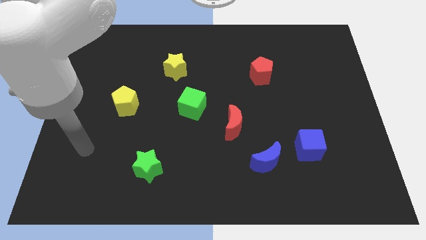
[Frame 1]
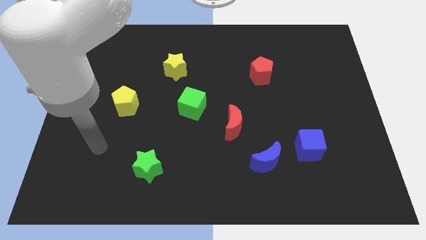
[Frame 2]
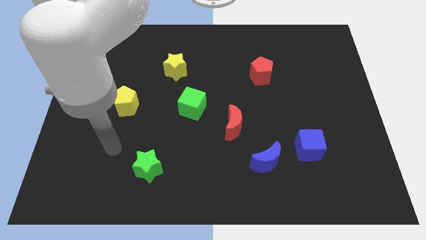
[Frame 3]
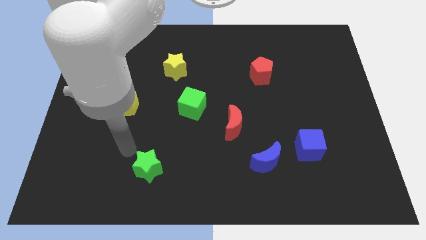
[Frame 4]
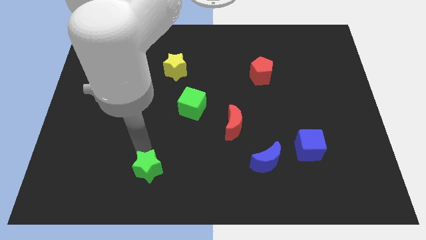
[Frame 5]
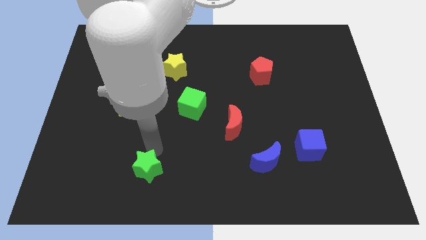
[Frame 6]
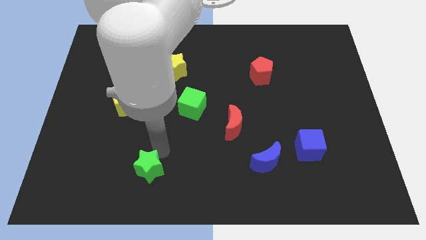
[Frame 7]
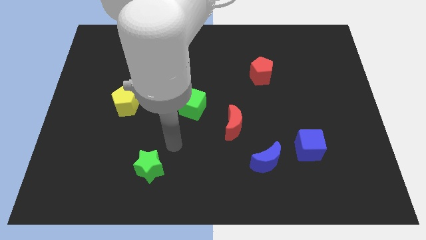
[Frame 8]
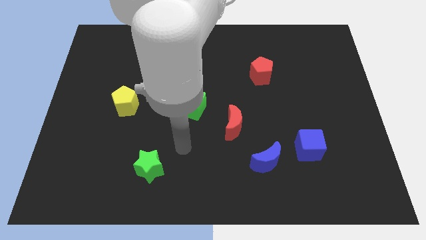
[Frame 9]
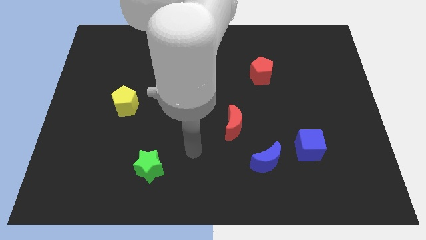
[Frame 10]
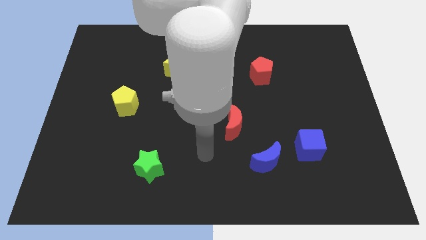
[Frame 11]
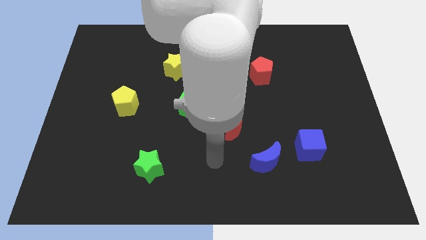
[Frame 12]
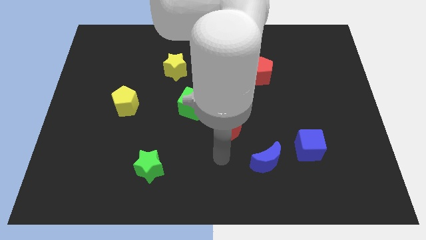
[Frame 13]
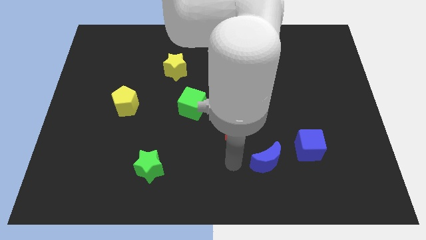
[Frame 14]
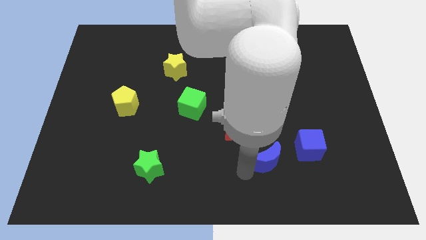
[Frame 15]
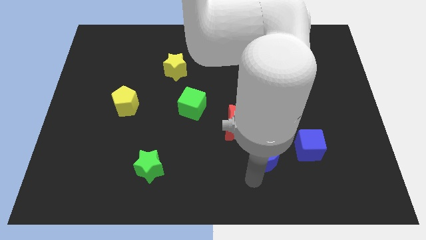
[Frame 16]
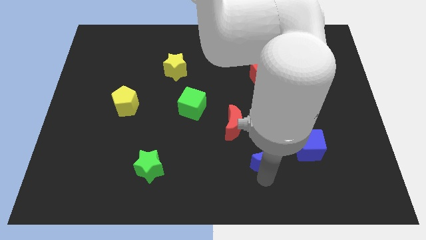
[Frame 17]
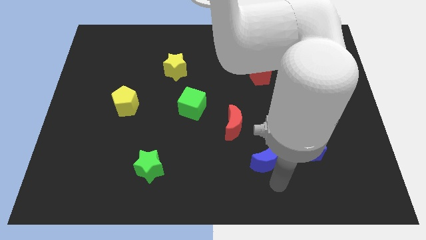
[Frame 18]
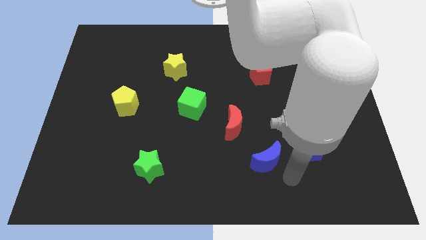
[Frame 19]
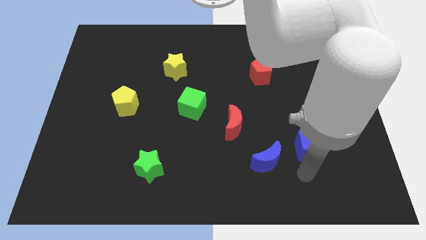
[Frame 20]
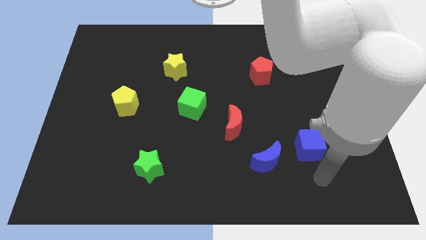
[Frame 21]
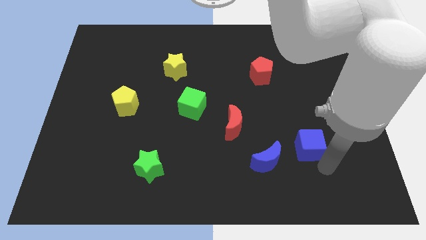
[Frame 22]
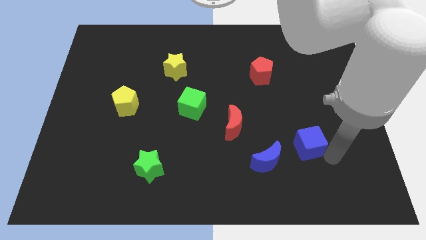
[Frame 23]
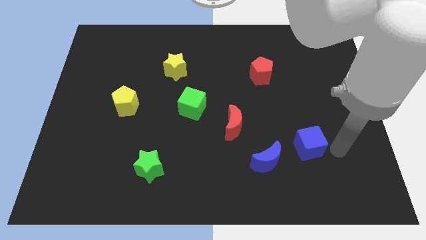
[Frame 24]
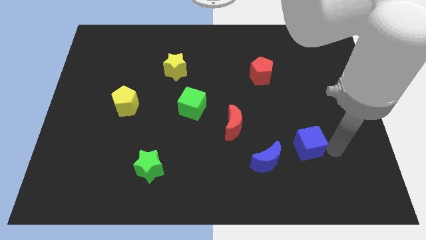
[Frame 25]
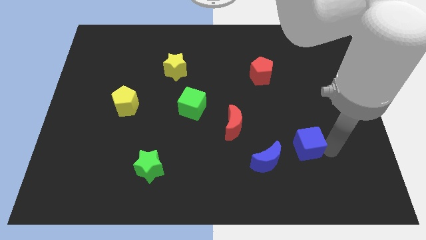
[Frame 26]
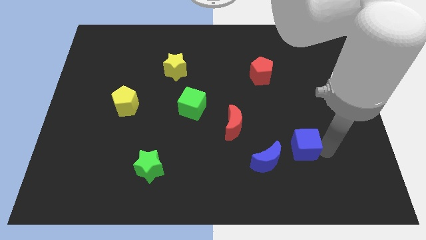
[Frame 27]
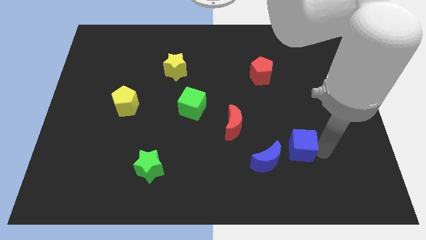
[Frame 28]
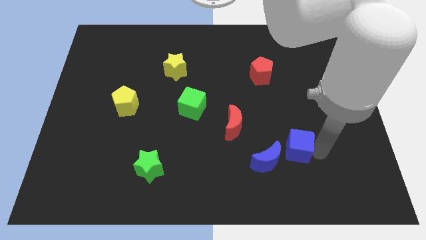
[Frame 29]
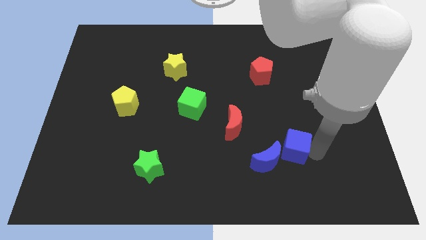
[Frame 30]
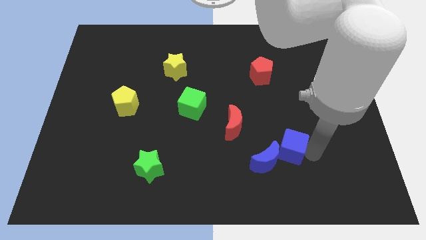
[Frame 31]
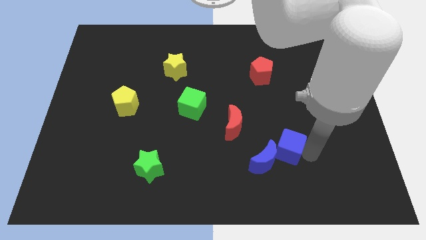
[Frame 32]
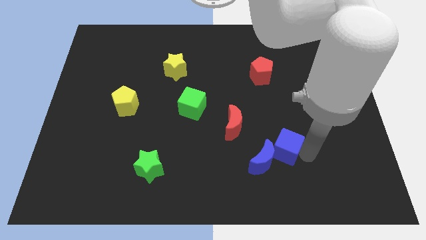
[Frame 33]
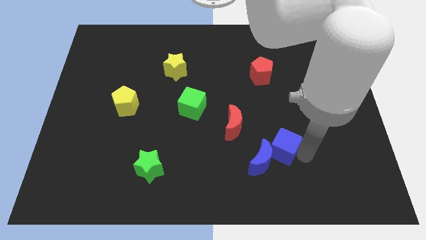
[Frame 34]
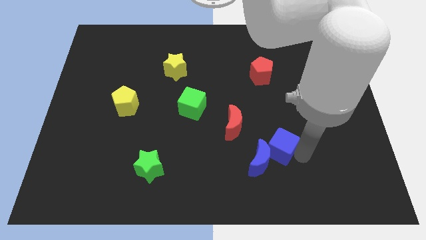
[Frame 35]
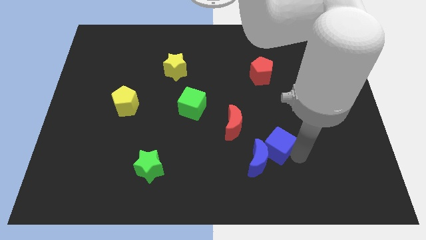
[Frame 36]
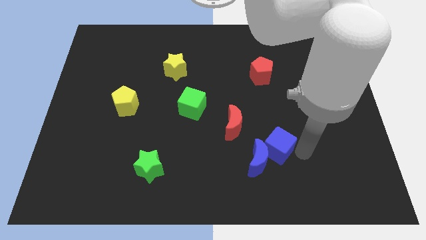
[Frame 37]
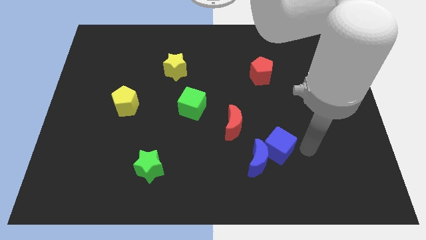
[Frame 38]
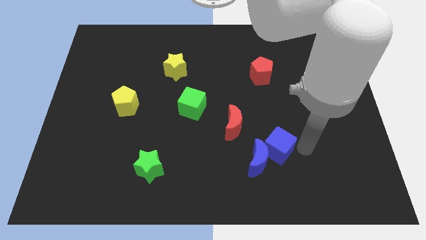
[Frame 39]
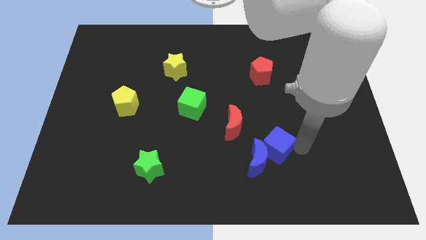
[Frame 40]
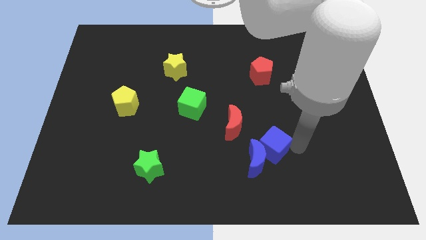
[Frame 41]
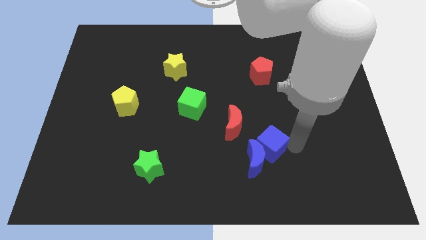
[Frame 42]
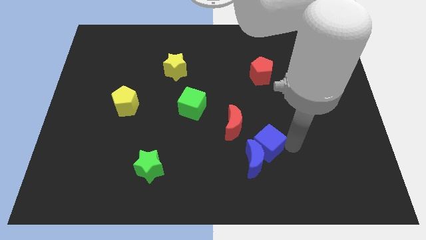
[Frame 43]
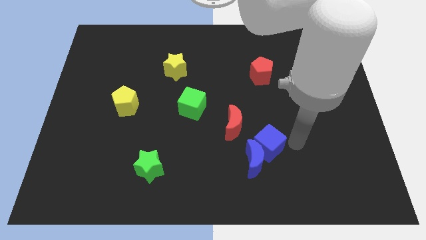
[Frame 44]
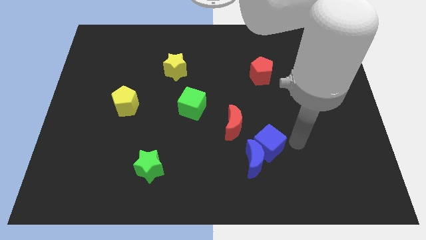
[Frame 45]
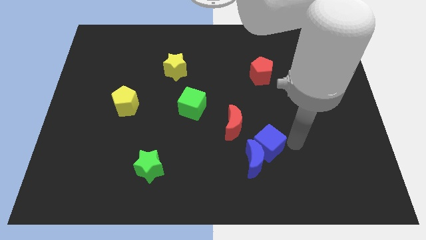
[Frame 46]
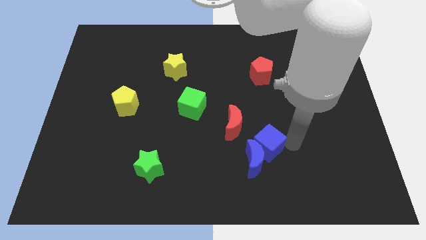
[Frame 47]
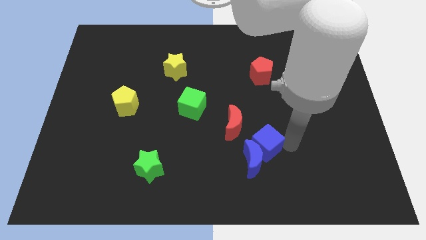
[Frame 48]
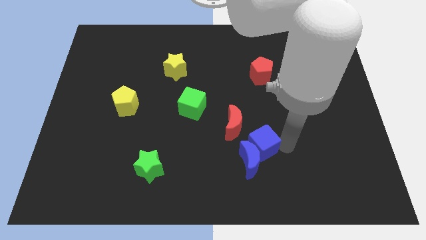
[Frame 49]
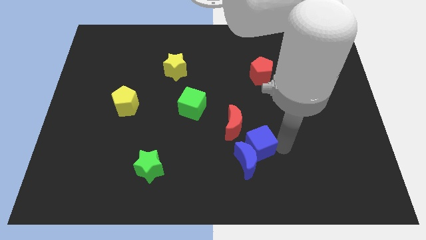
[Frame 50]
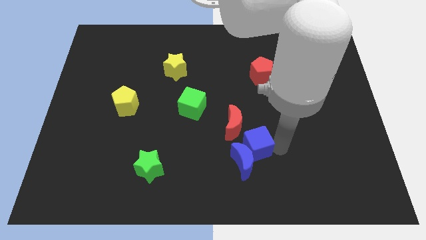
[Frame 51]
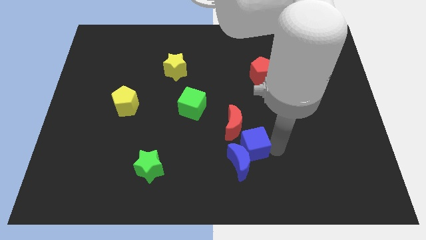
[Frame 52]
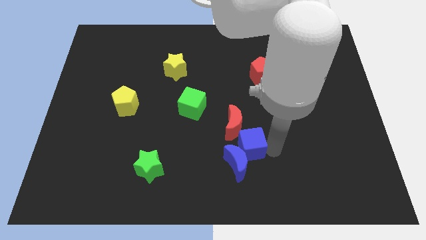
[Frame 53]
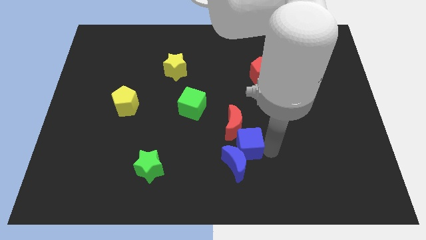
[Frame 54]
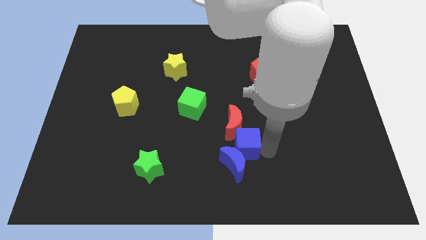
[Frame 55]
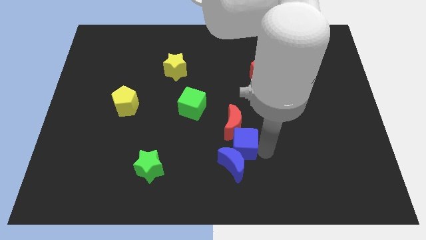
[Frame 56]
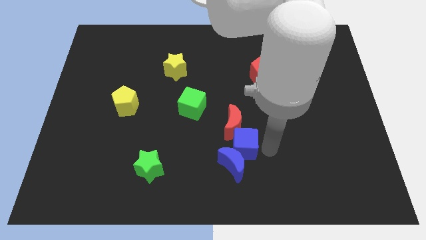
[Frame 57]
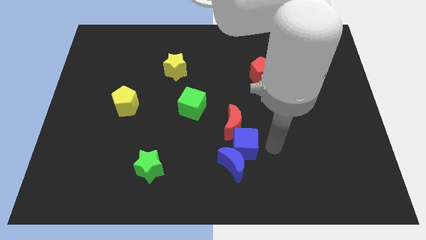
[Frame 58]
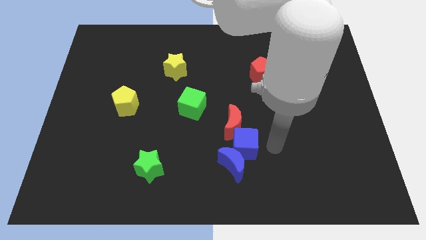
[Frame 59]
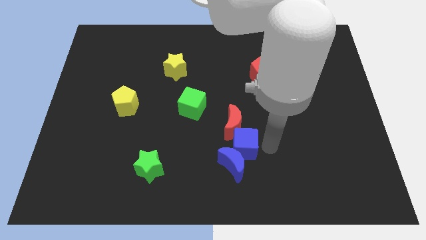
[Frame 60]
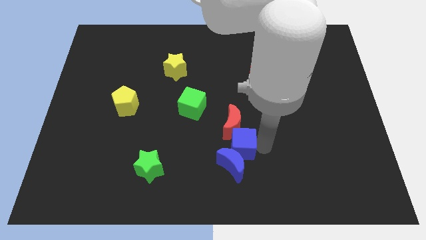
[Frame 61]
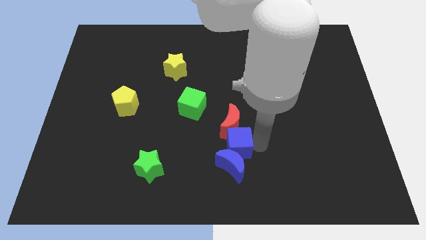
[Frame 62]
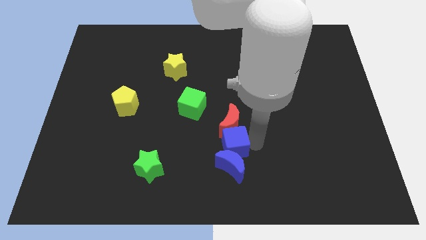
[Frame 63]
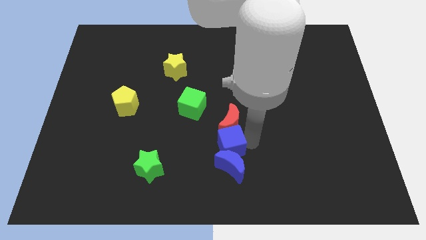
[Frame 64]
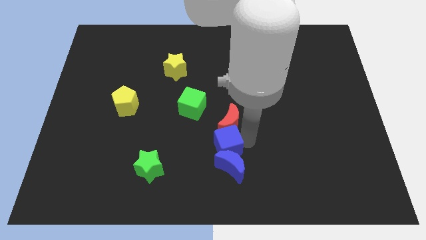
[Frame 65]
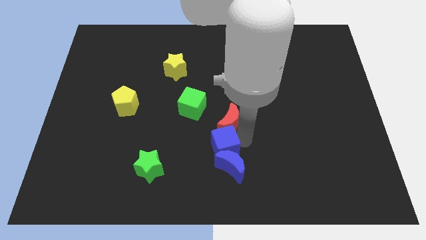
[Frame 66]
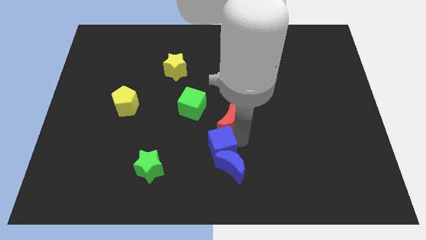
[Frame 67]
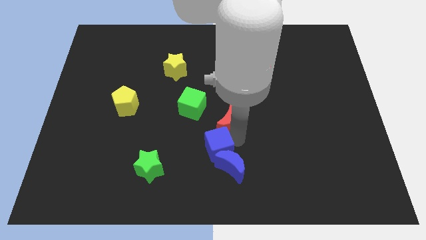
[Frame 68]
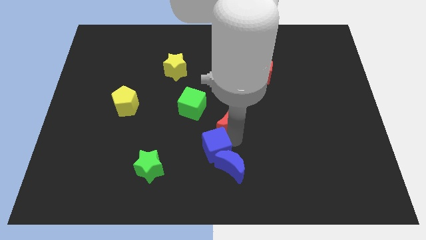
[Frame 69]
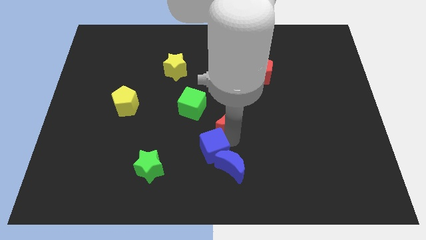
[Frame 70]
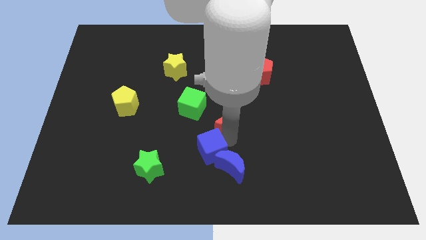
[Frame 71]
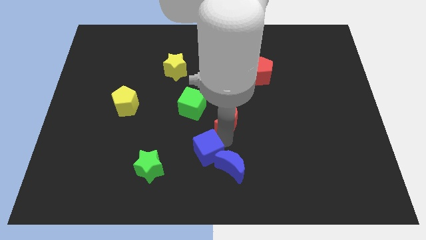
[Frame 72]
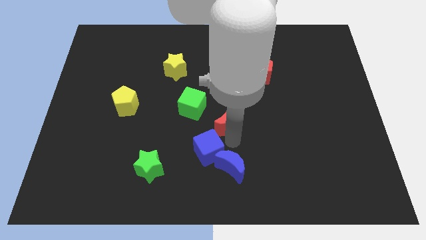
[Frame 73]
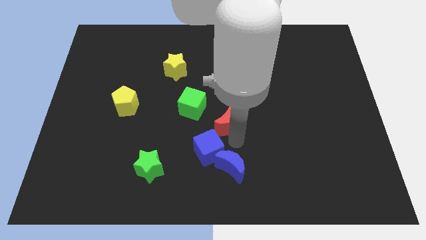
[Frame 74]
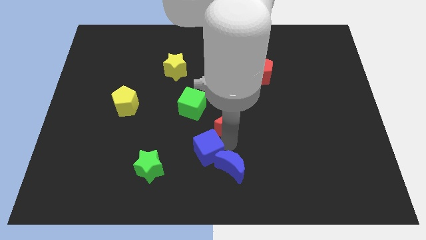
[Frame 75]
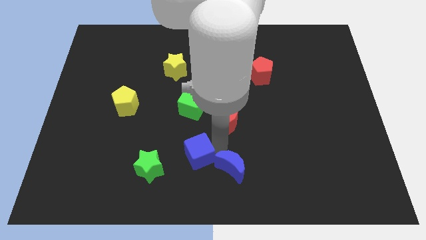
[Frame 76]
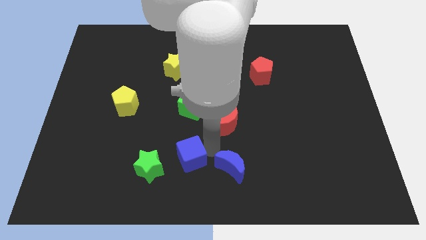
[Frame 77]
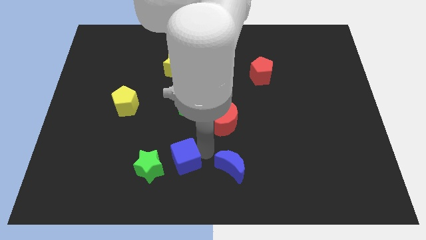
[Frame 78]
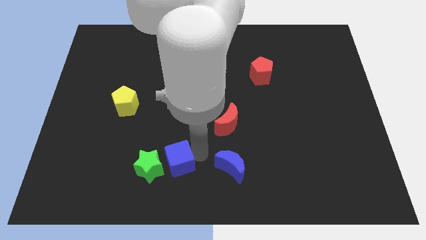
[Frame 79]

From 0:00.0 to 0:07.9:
slide the blue cube next to the green star
